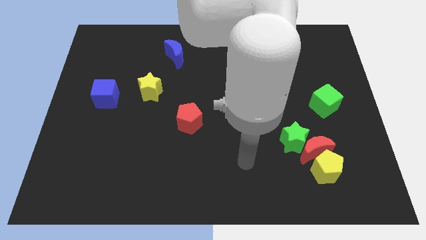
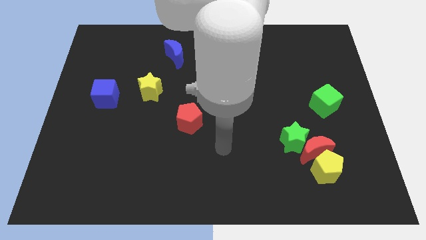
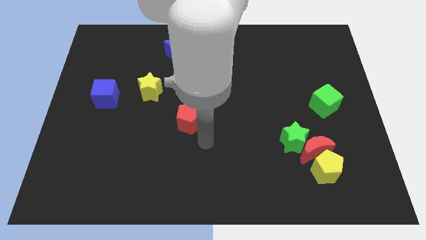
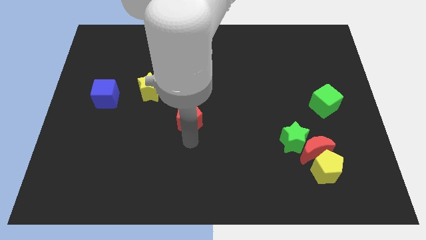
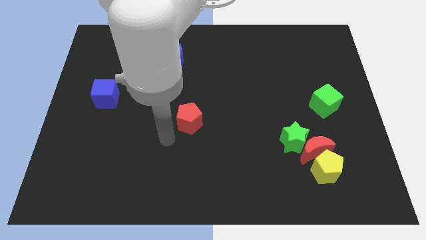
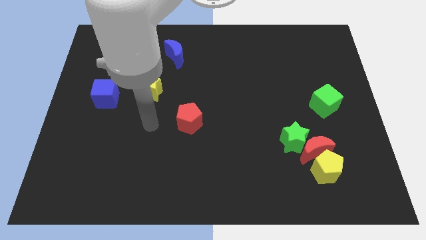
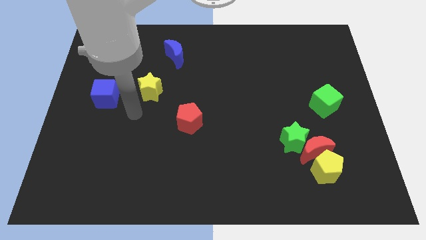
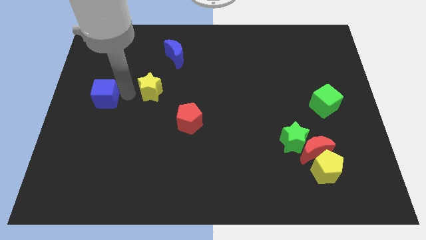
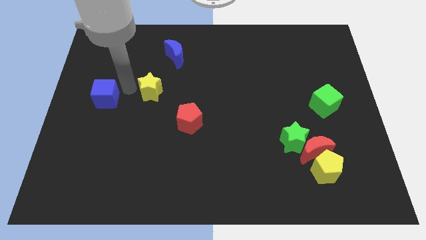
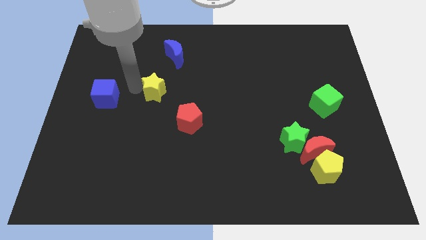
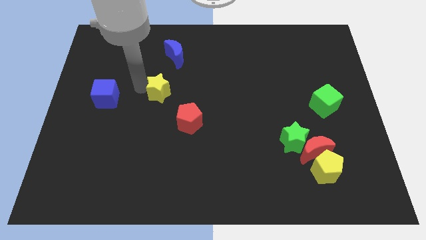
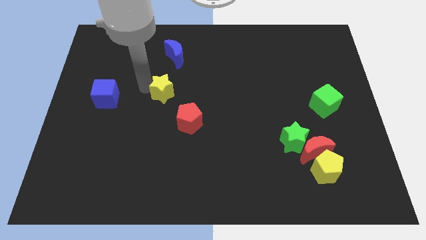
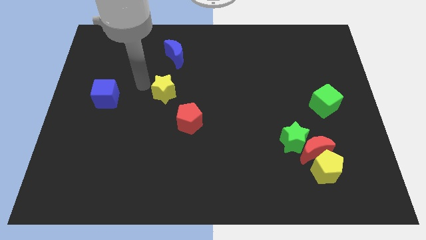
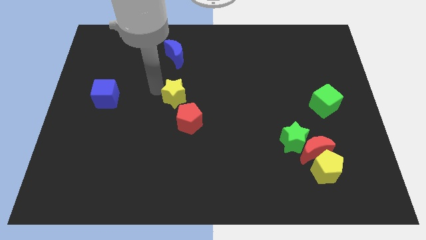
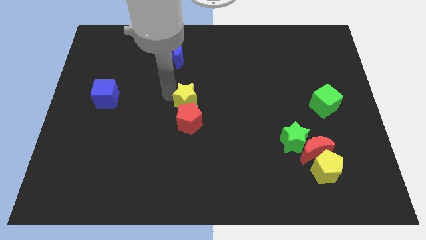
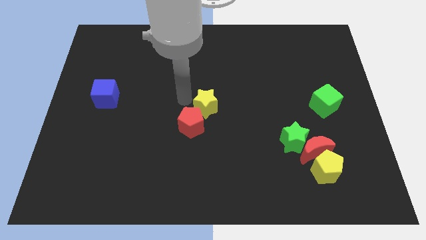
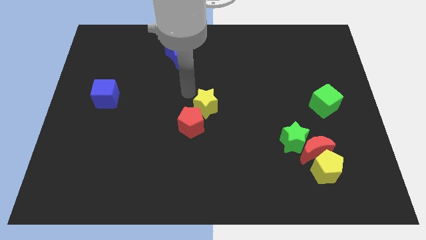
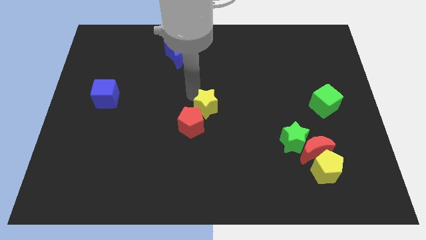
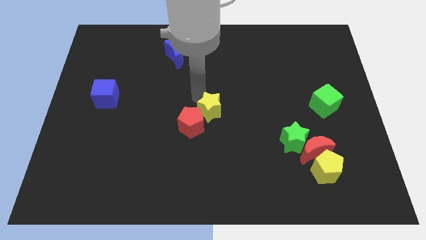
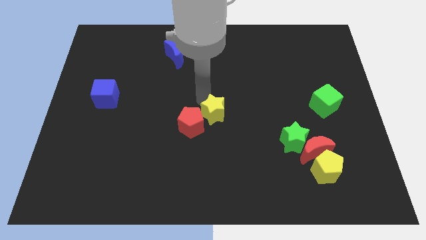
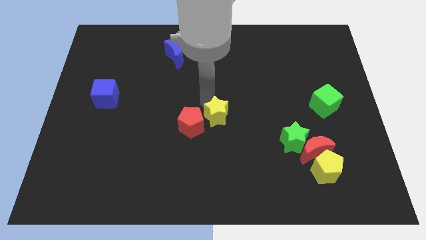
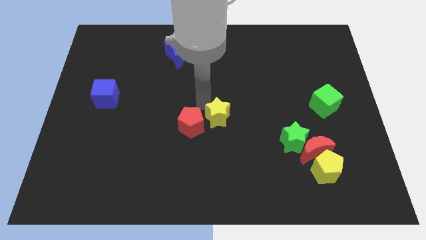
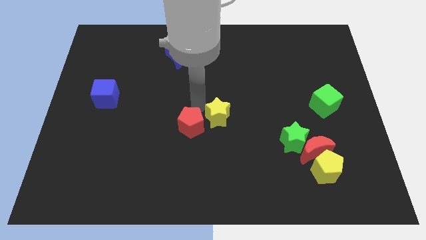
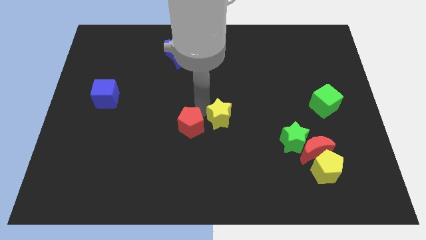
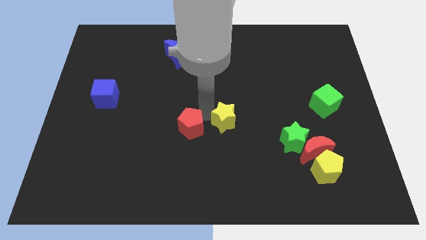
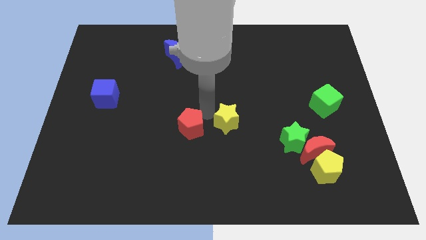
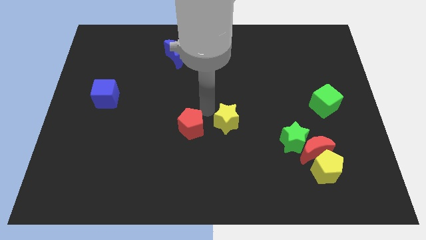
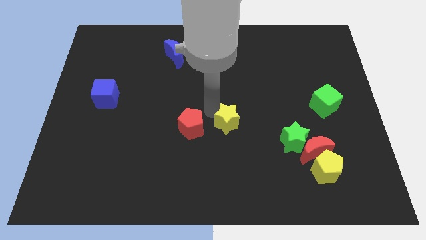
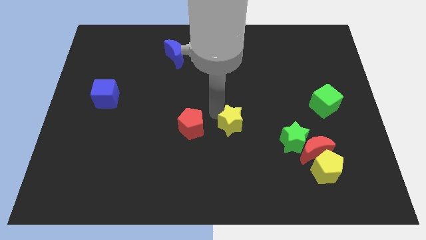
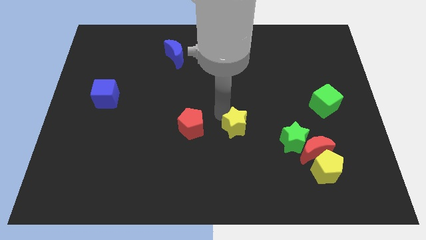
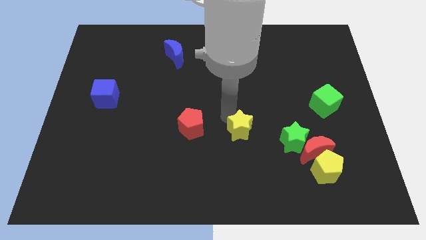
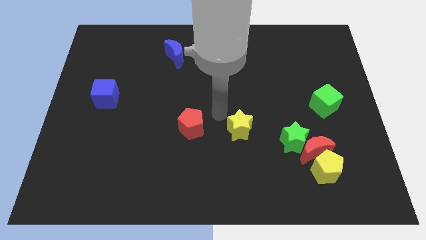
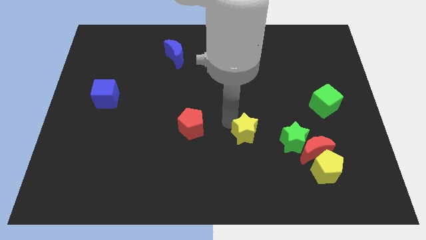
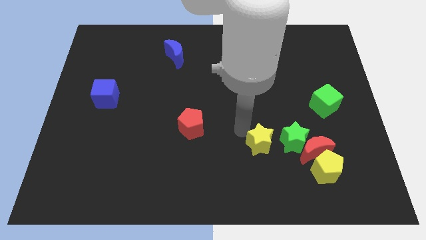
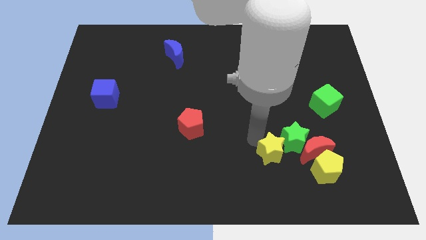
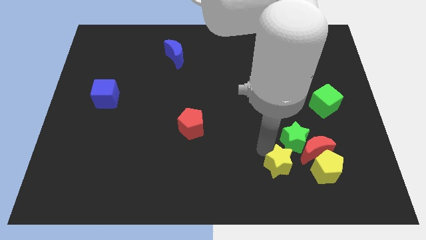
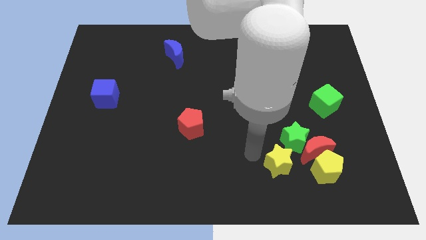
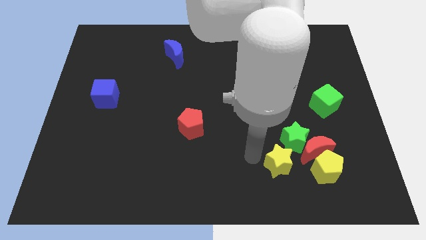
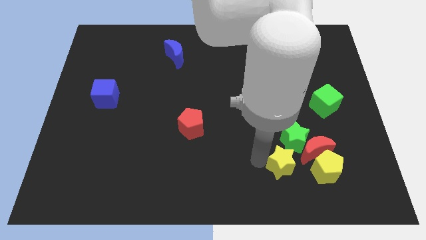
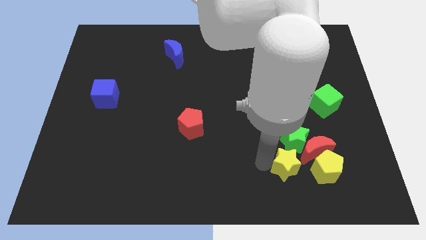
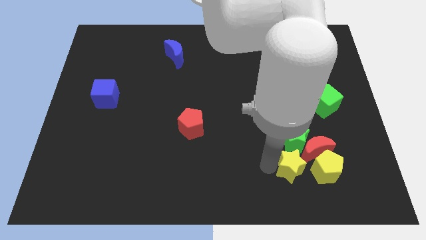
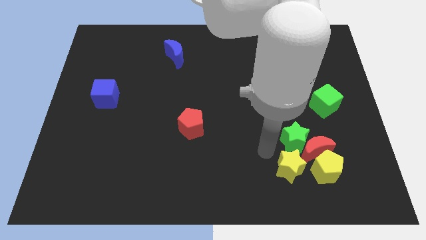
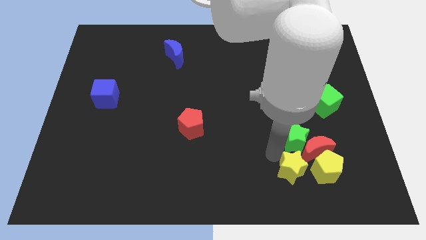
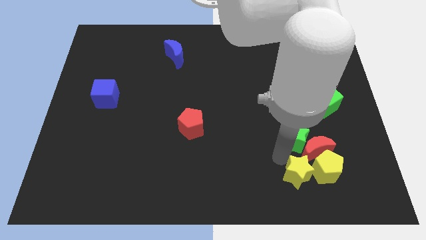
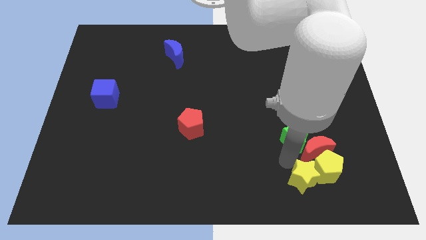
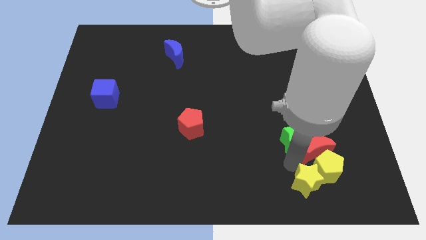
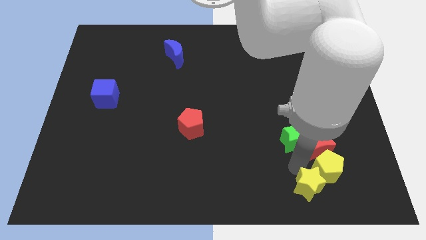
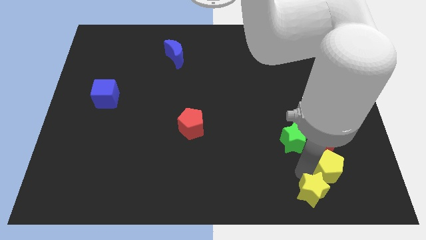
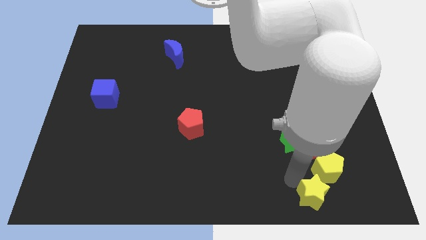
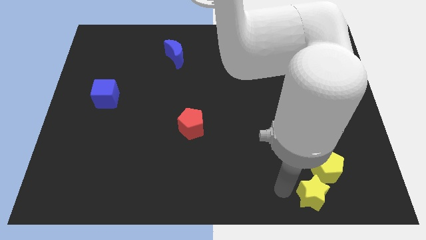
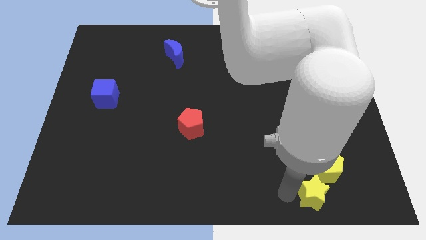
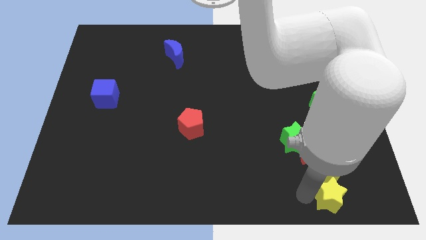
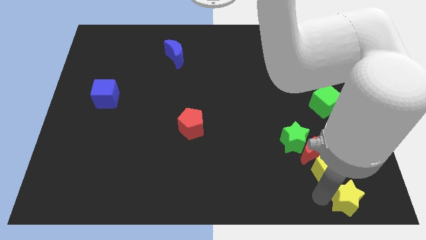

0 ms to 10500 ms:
push the yellow star to the bottom right

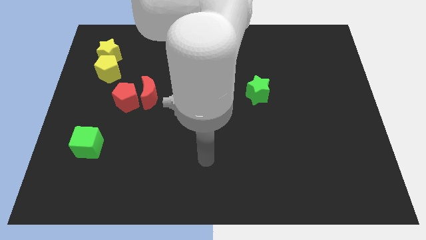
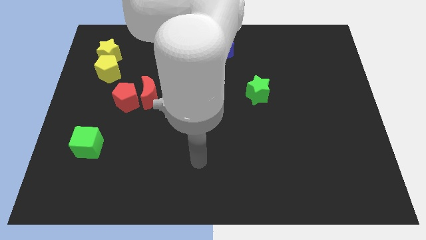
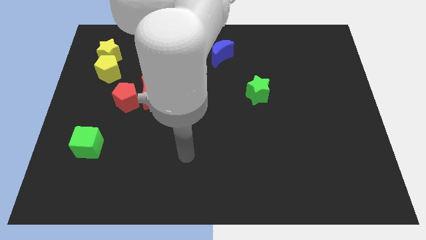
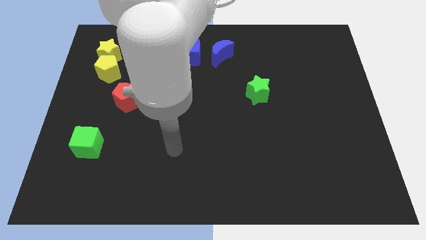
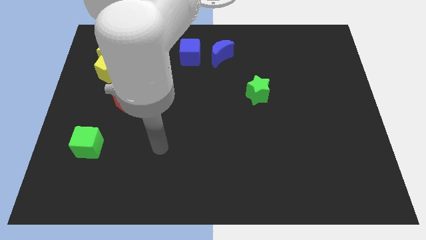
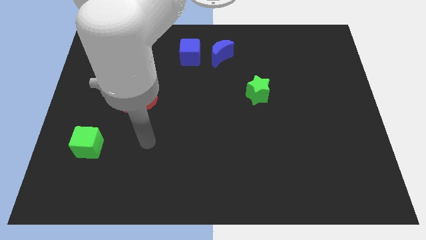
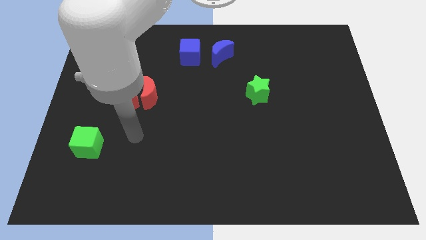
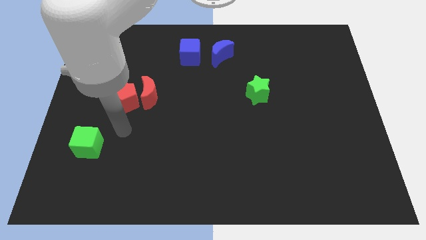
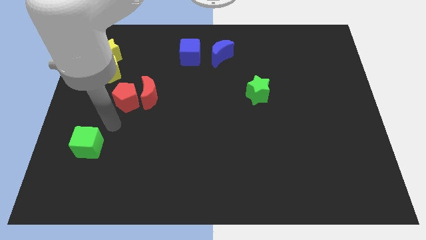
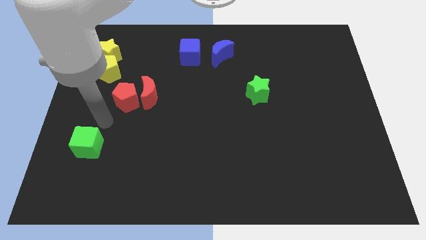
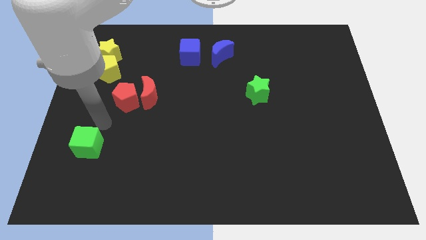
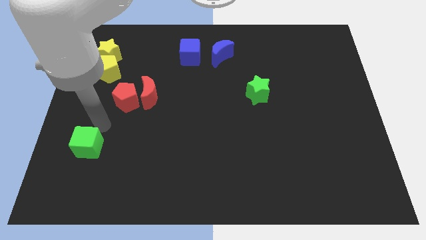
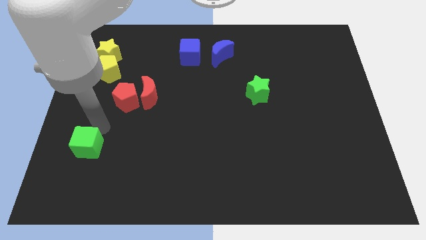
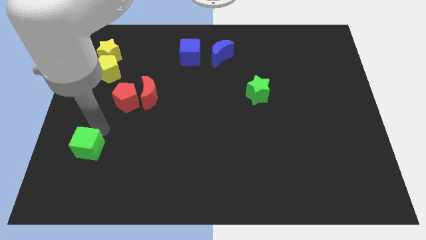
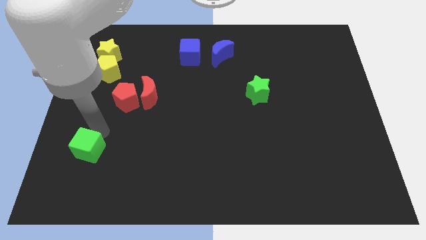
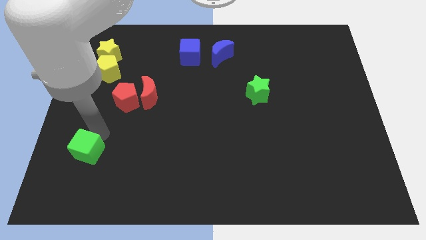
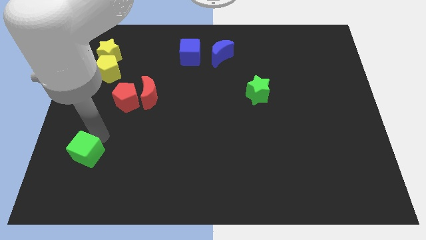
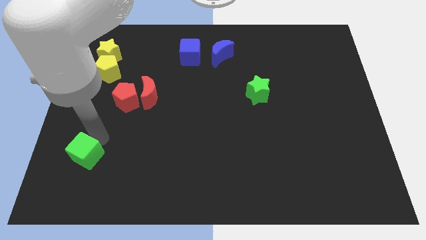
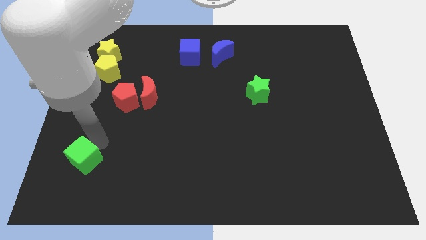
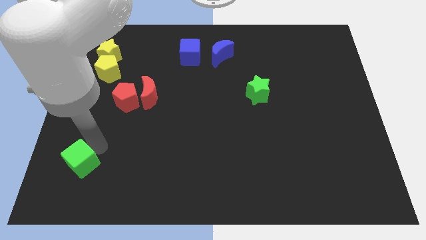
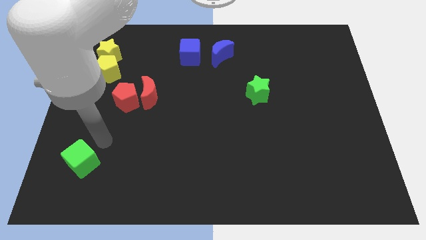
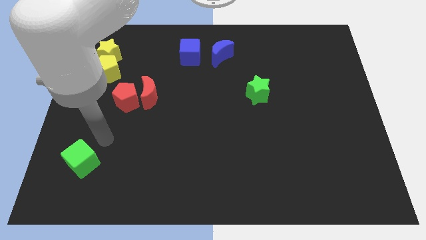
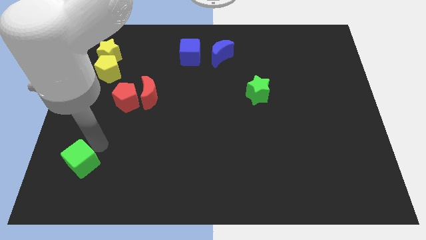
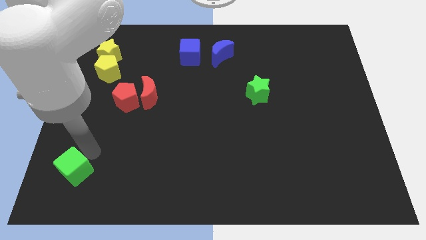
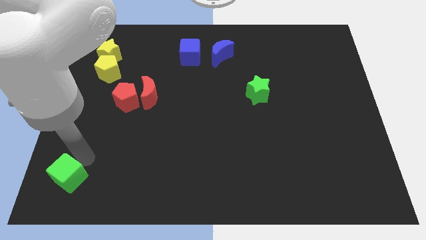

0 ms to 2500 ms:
push the green cube to the bottom left of the board
